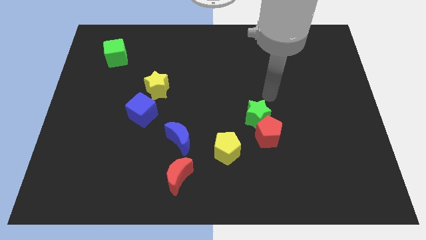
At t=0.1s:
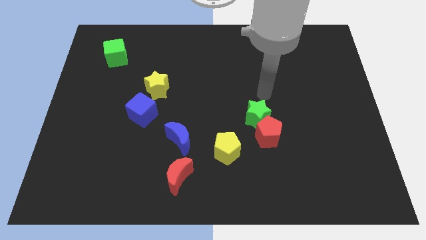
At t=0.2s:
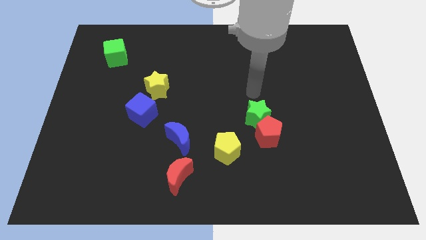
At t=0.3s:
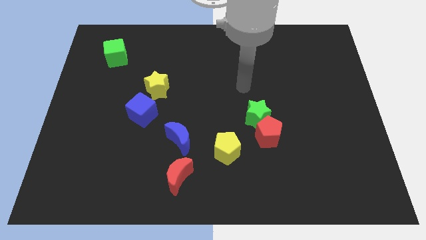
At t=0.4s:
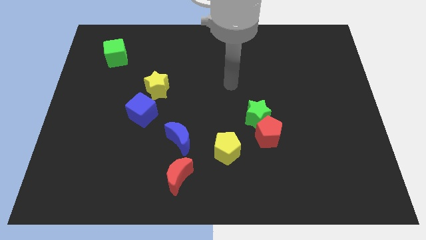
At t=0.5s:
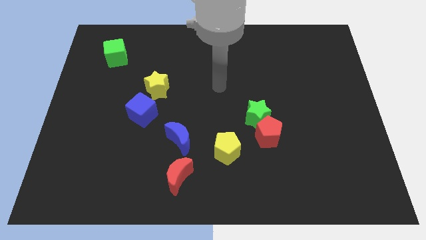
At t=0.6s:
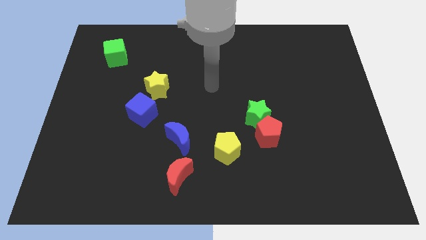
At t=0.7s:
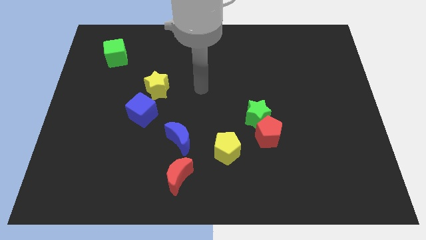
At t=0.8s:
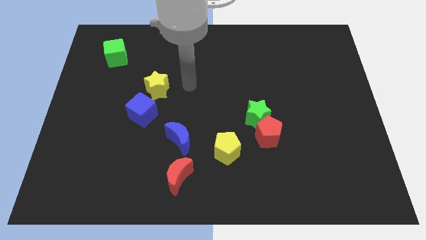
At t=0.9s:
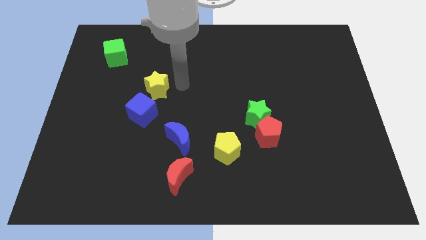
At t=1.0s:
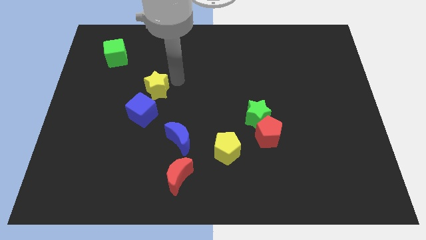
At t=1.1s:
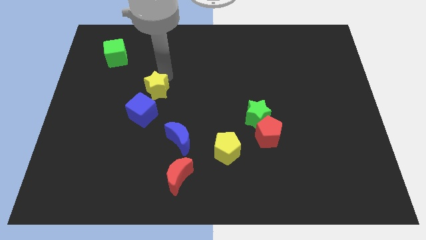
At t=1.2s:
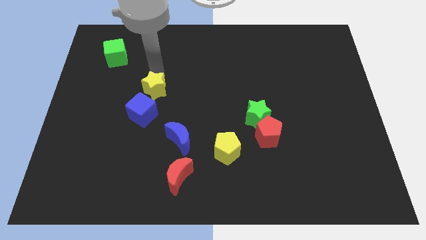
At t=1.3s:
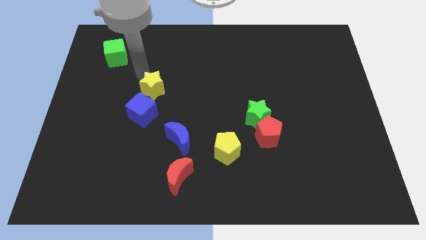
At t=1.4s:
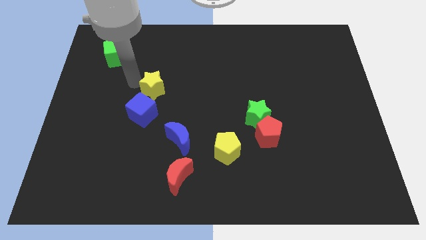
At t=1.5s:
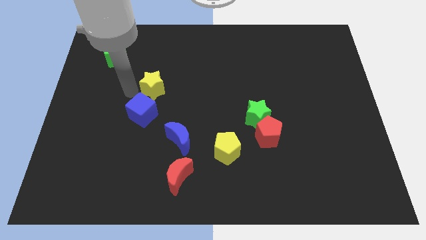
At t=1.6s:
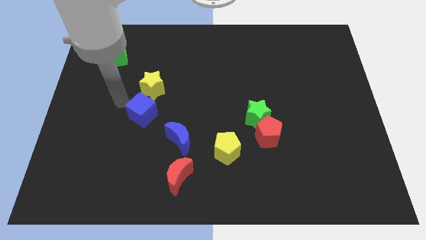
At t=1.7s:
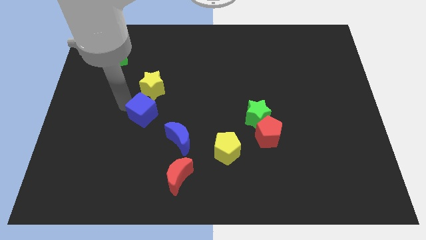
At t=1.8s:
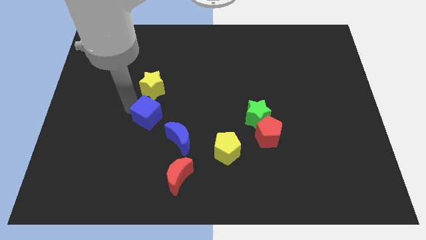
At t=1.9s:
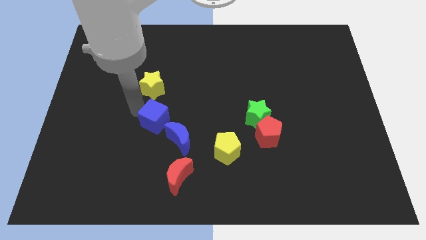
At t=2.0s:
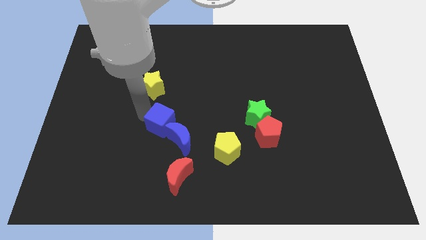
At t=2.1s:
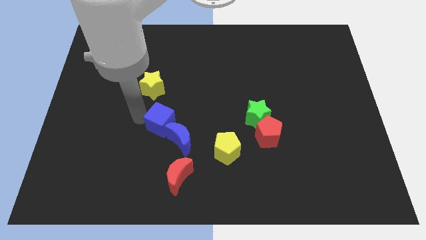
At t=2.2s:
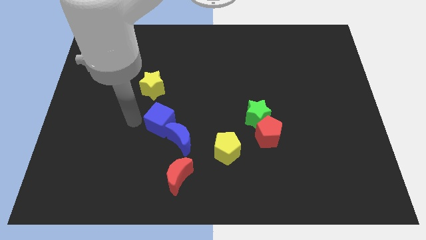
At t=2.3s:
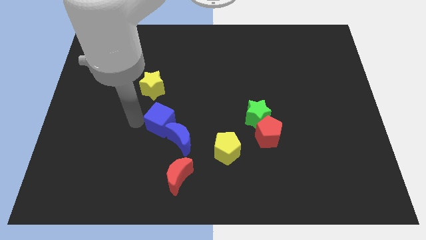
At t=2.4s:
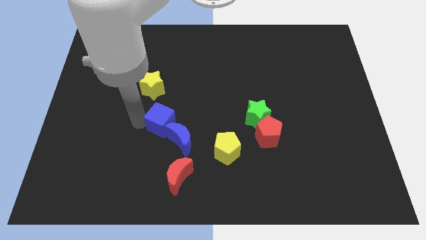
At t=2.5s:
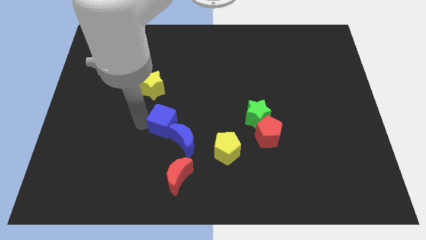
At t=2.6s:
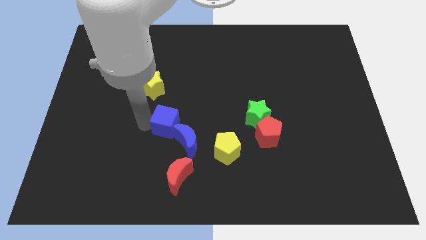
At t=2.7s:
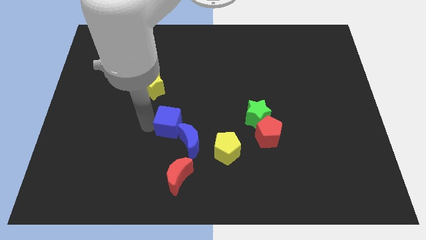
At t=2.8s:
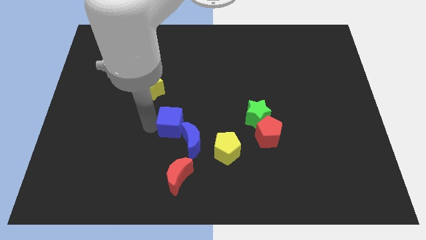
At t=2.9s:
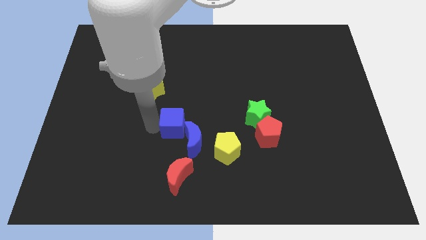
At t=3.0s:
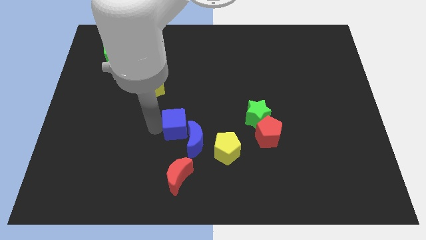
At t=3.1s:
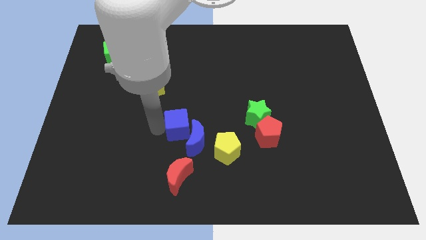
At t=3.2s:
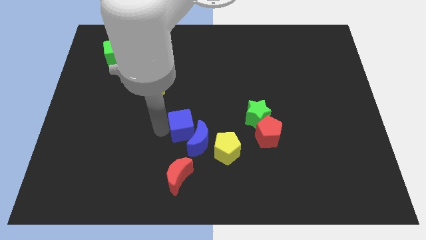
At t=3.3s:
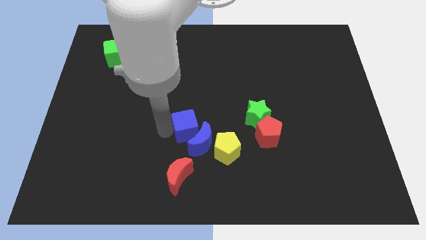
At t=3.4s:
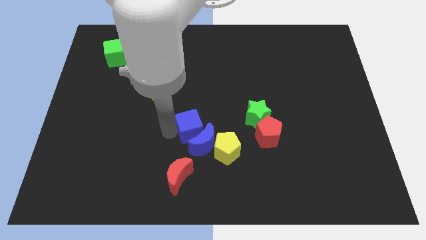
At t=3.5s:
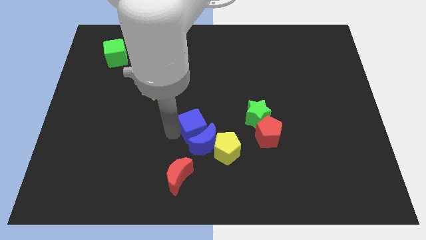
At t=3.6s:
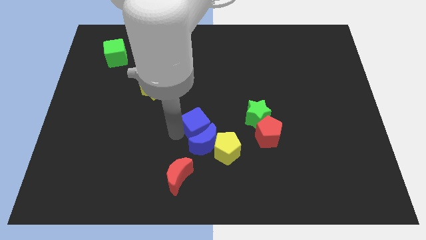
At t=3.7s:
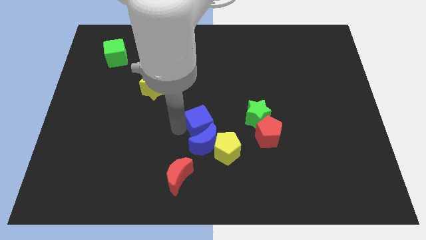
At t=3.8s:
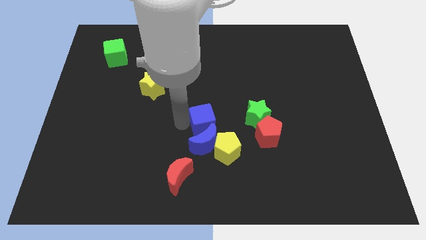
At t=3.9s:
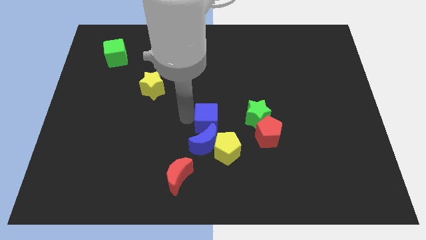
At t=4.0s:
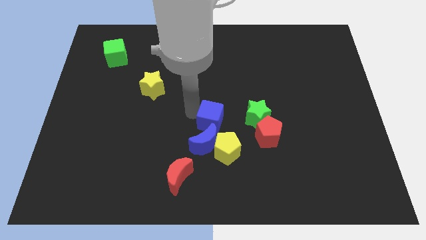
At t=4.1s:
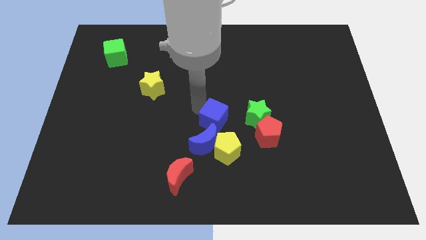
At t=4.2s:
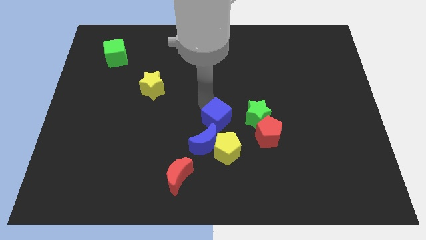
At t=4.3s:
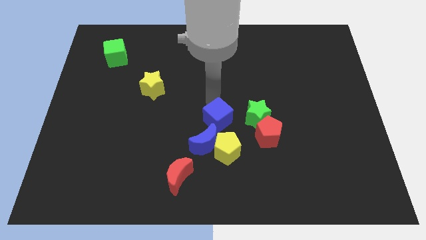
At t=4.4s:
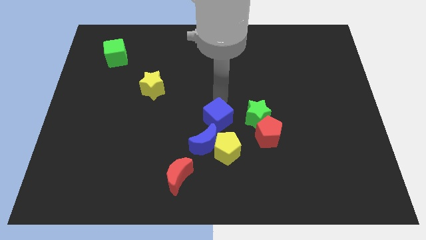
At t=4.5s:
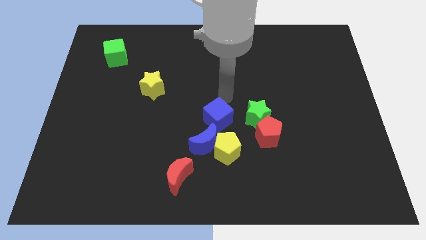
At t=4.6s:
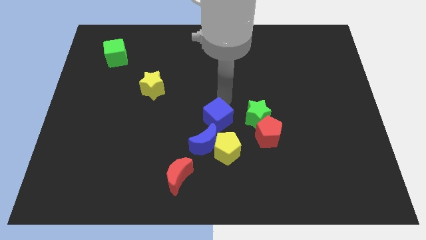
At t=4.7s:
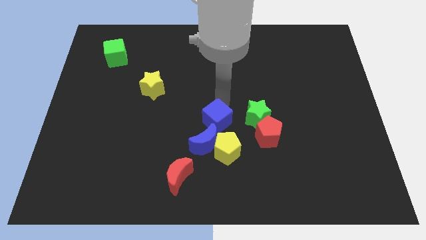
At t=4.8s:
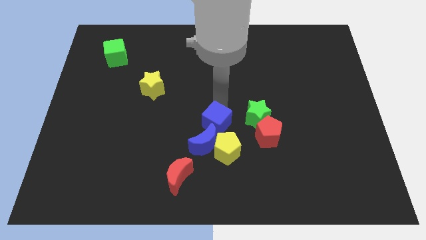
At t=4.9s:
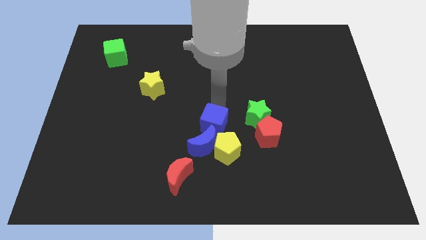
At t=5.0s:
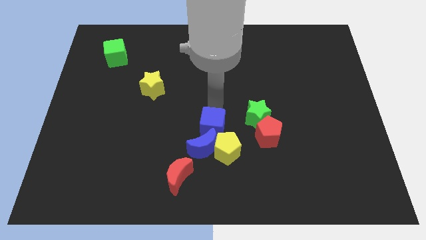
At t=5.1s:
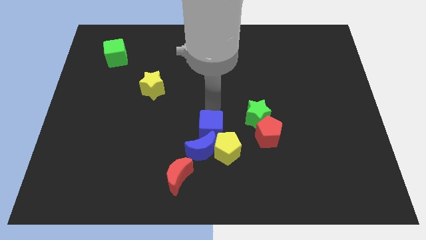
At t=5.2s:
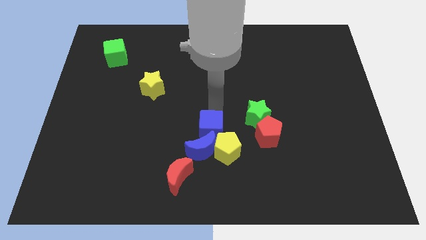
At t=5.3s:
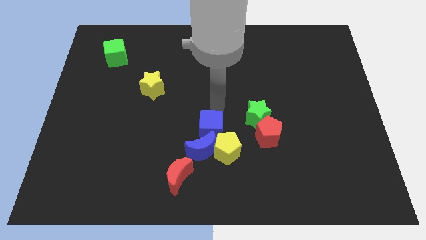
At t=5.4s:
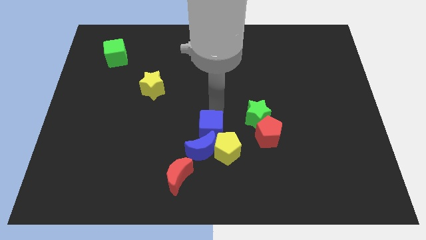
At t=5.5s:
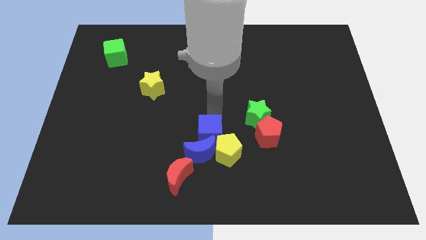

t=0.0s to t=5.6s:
push the blue cube to the top right of the red moon

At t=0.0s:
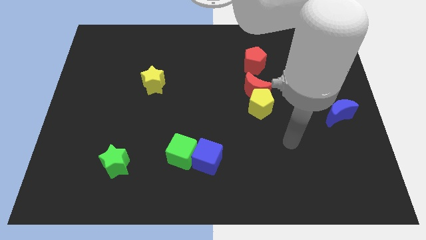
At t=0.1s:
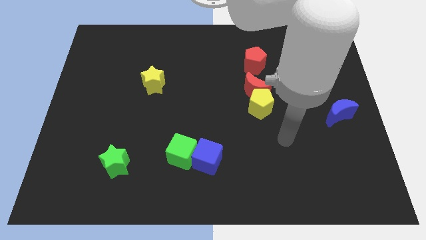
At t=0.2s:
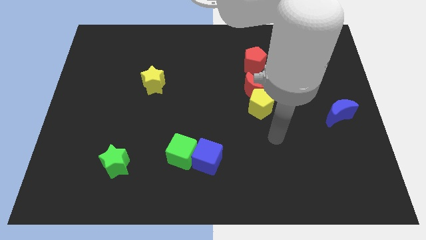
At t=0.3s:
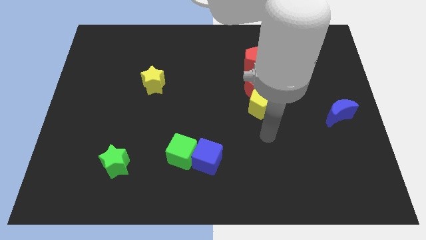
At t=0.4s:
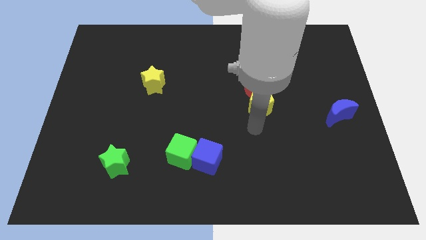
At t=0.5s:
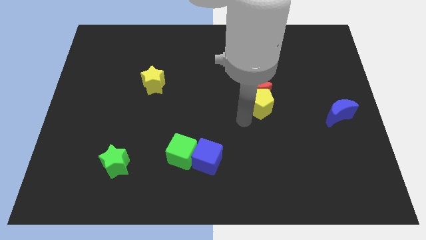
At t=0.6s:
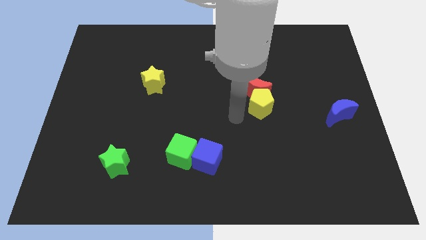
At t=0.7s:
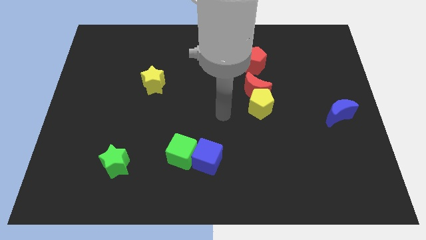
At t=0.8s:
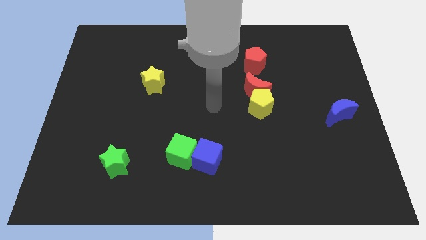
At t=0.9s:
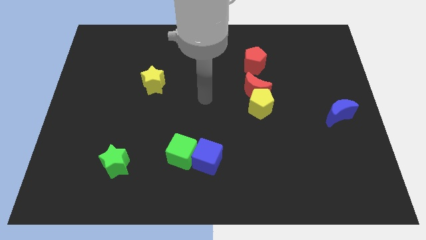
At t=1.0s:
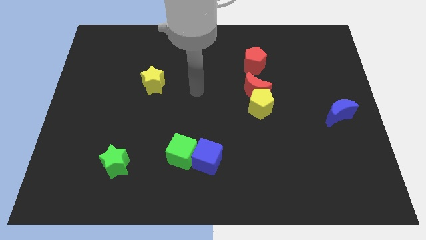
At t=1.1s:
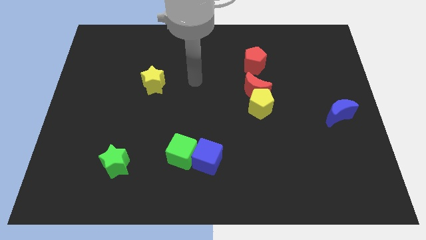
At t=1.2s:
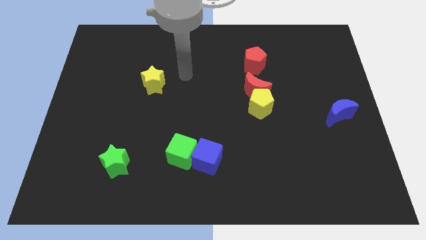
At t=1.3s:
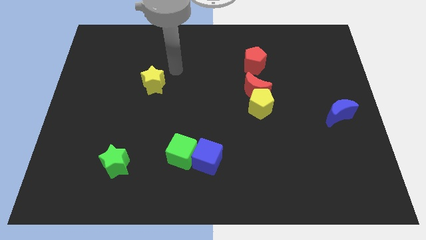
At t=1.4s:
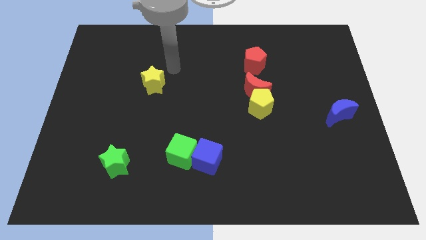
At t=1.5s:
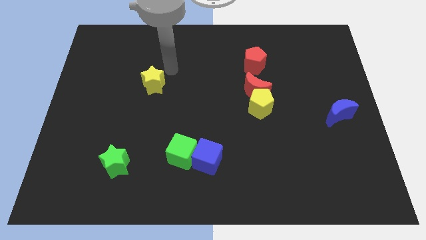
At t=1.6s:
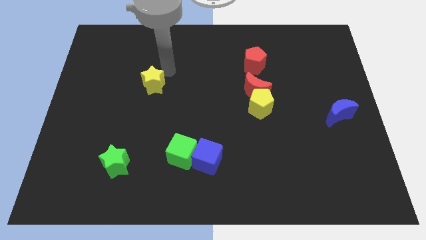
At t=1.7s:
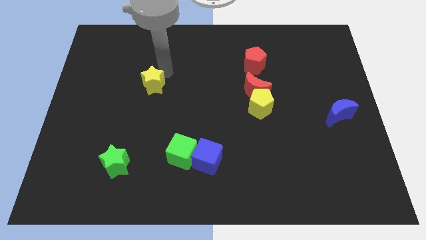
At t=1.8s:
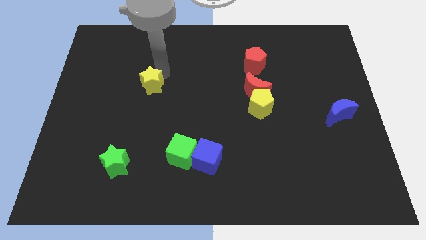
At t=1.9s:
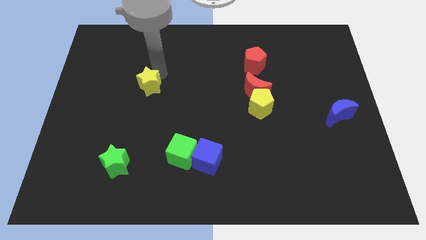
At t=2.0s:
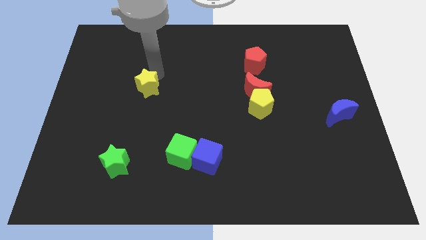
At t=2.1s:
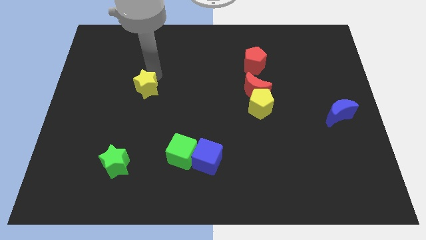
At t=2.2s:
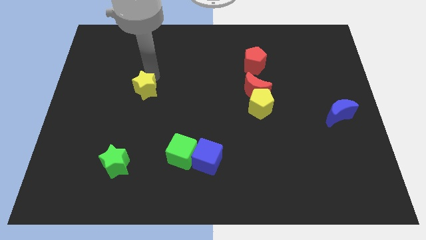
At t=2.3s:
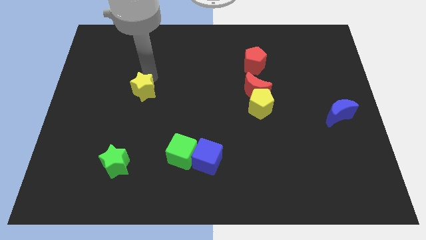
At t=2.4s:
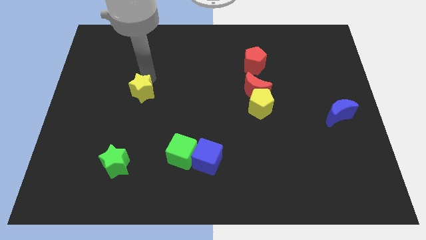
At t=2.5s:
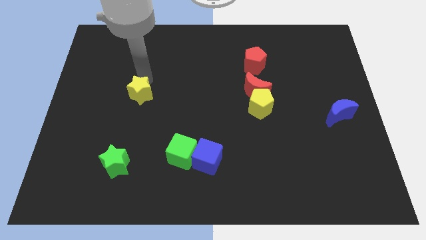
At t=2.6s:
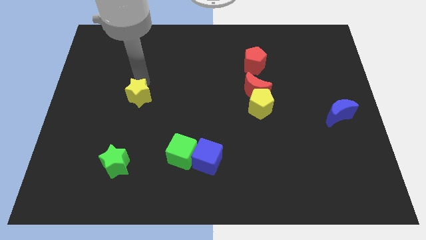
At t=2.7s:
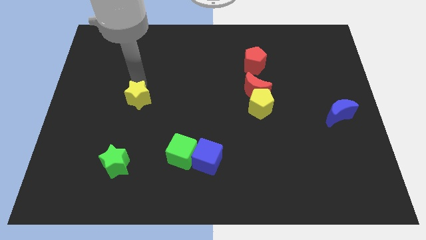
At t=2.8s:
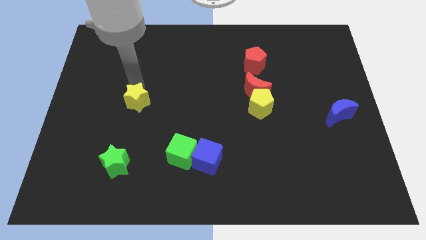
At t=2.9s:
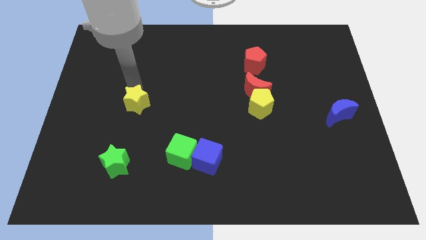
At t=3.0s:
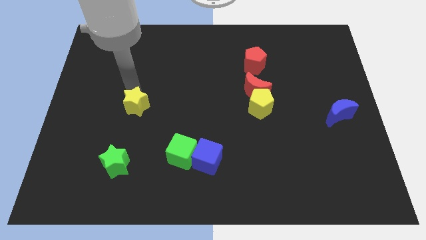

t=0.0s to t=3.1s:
push the yellow star to the top of the green star
